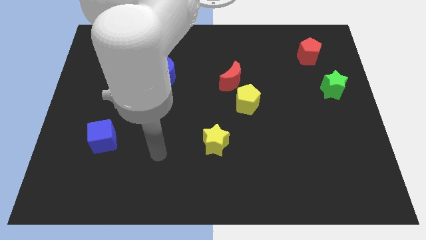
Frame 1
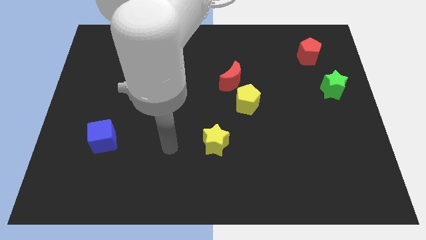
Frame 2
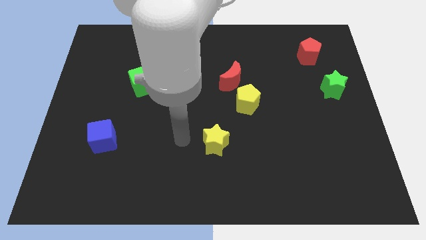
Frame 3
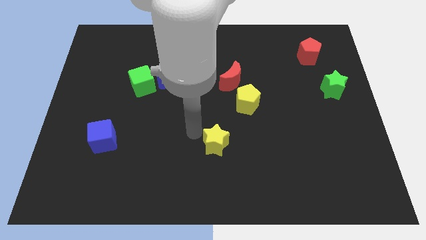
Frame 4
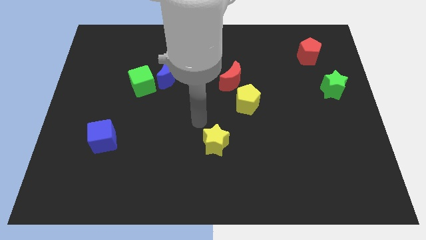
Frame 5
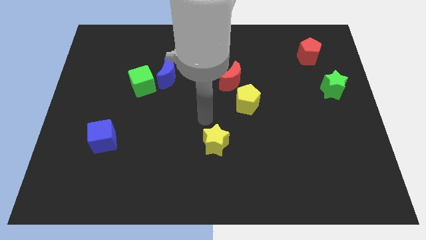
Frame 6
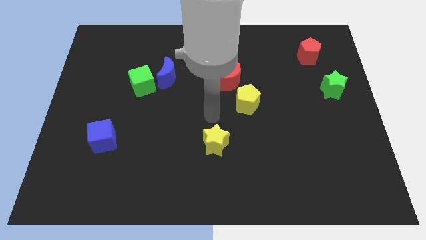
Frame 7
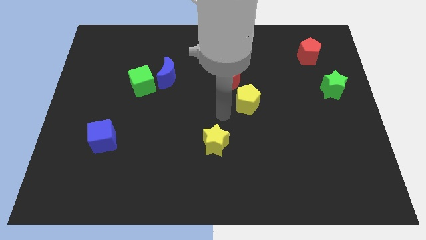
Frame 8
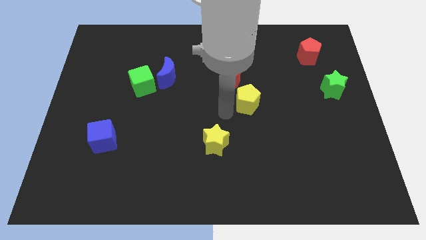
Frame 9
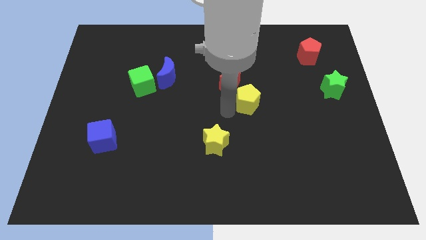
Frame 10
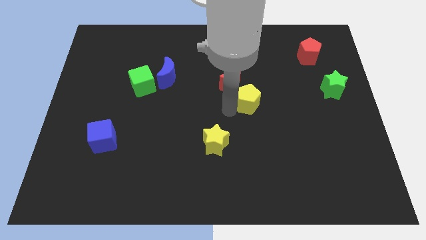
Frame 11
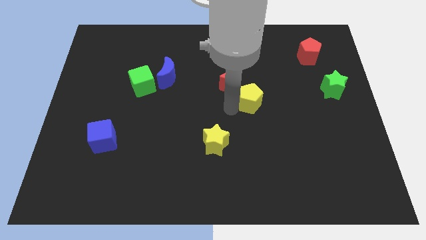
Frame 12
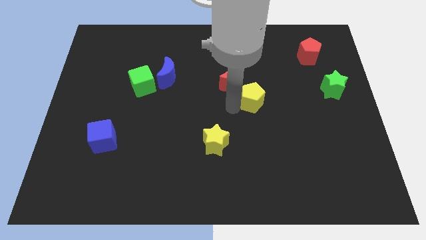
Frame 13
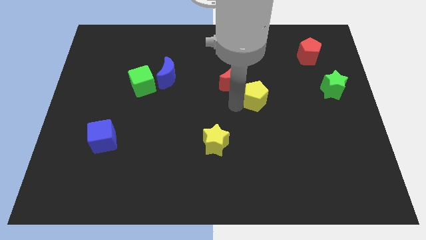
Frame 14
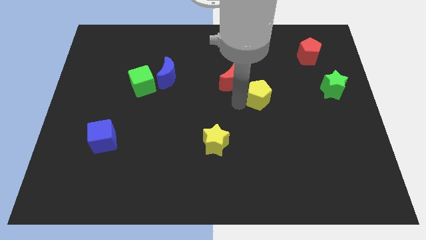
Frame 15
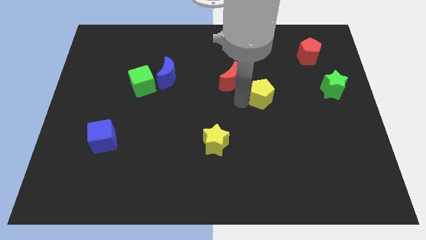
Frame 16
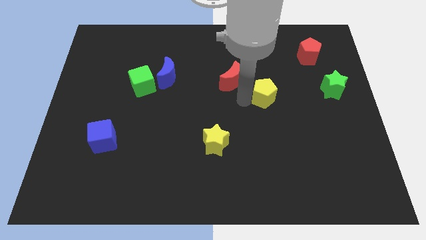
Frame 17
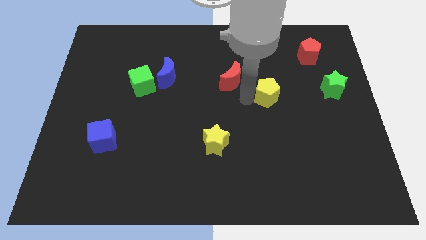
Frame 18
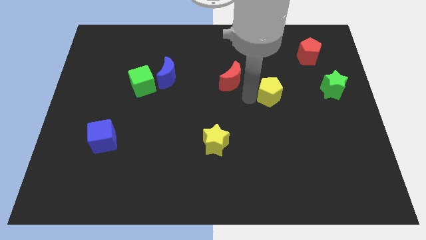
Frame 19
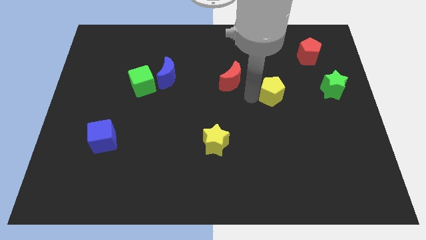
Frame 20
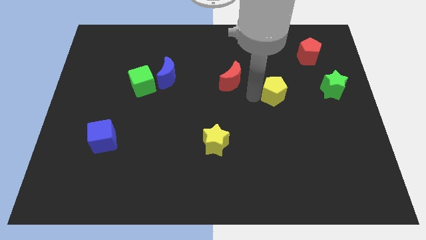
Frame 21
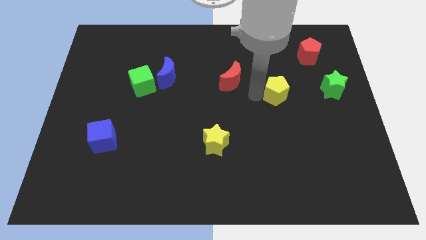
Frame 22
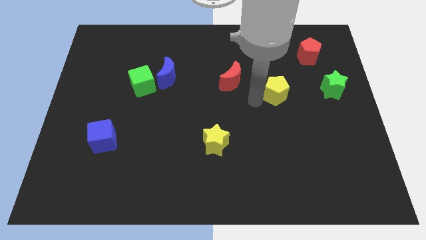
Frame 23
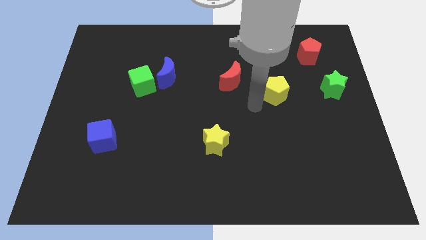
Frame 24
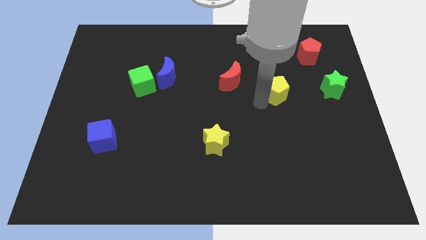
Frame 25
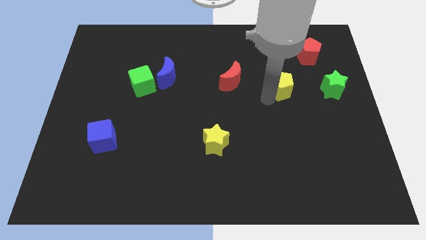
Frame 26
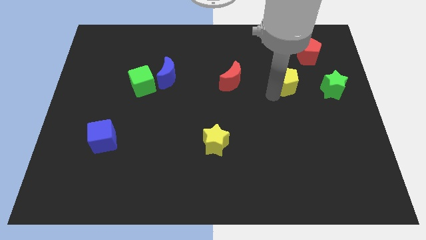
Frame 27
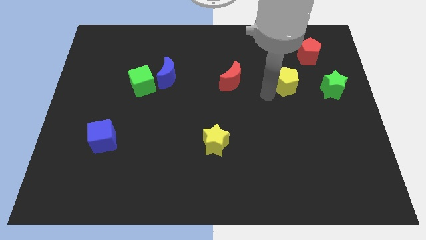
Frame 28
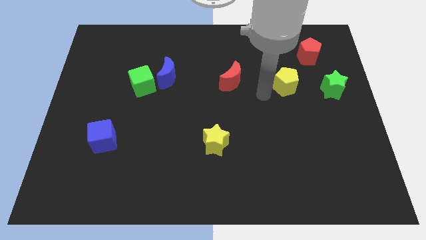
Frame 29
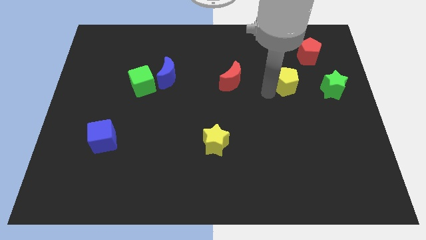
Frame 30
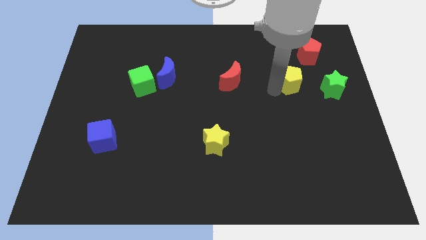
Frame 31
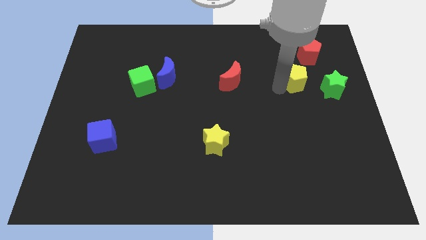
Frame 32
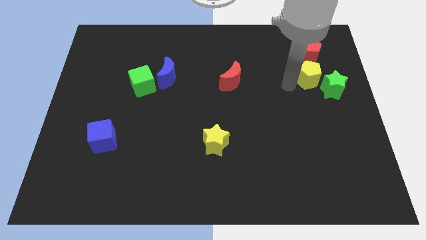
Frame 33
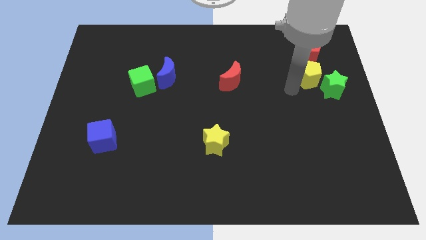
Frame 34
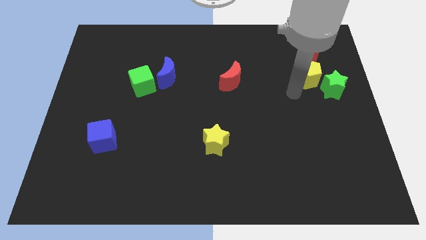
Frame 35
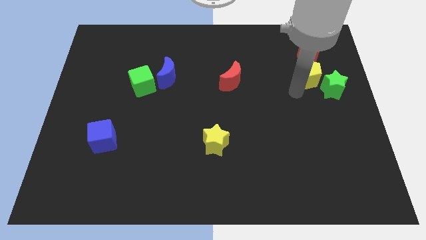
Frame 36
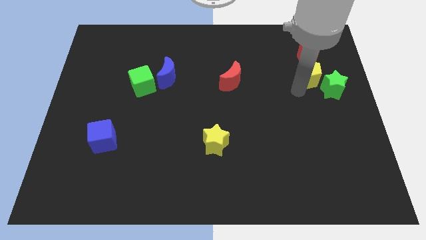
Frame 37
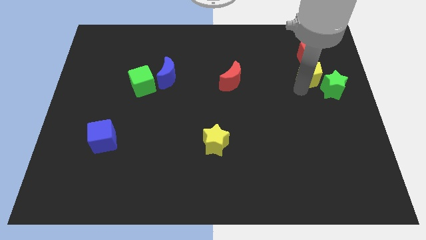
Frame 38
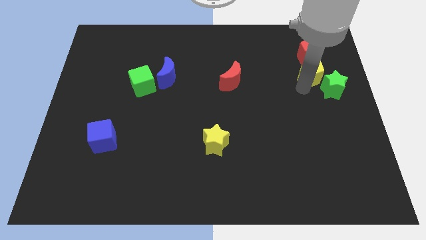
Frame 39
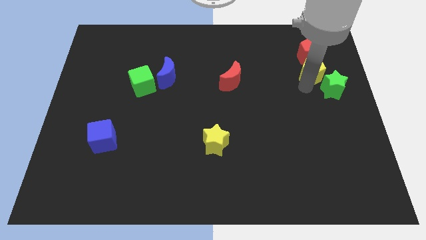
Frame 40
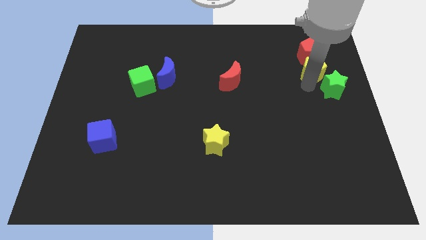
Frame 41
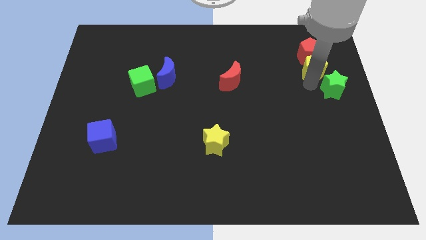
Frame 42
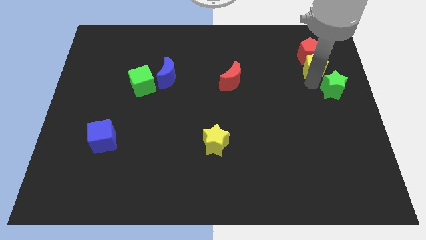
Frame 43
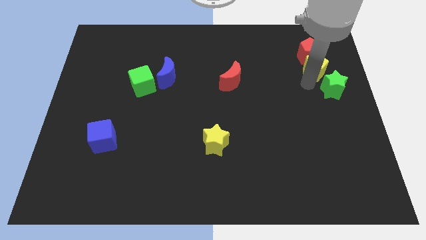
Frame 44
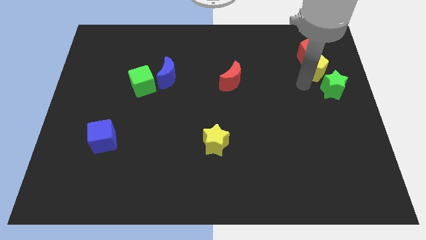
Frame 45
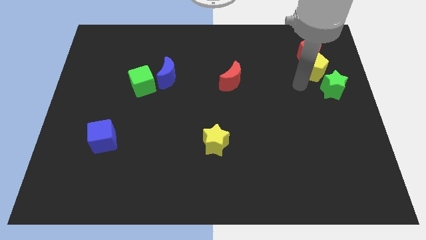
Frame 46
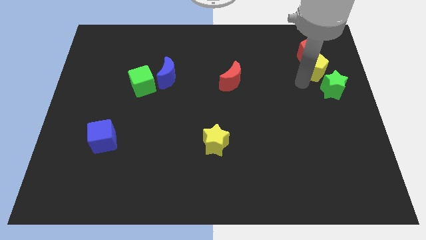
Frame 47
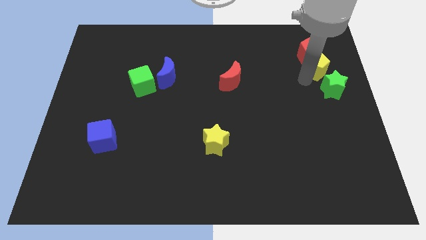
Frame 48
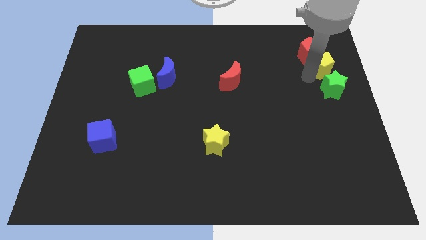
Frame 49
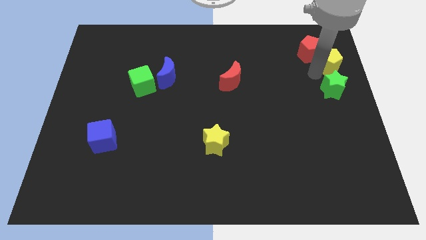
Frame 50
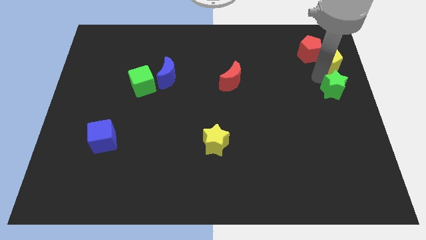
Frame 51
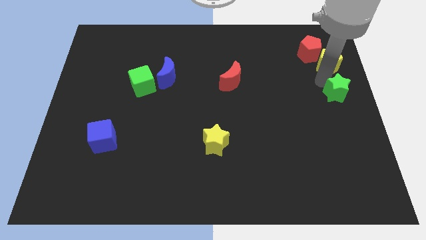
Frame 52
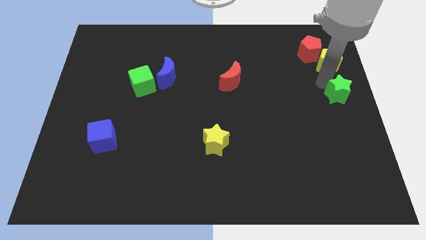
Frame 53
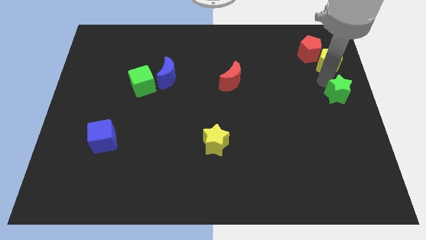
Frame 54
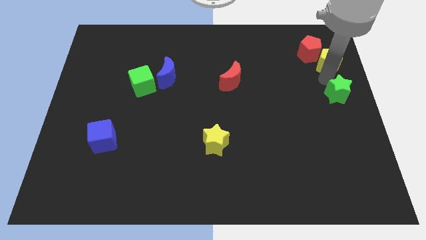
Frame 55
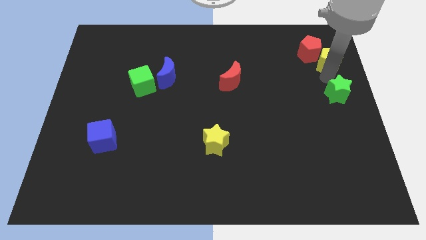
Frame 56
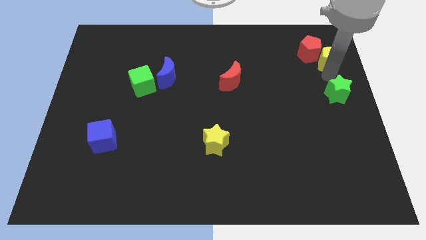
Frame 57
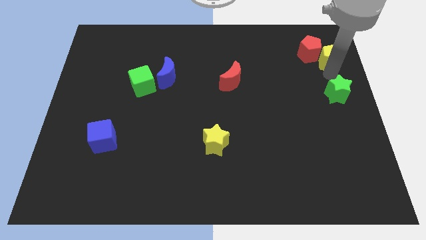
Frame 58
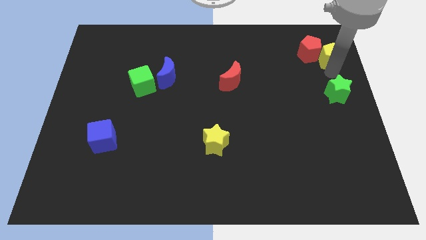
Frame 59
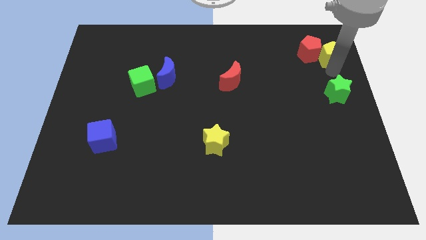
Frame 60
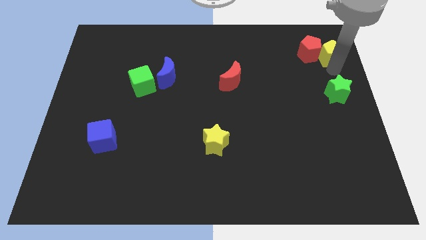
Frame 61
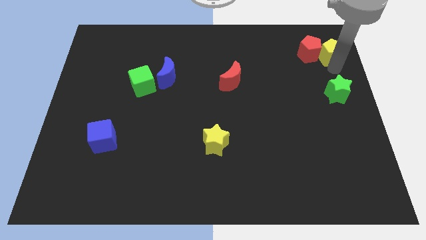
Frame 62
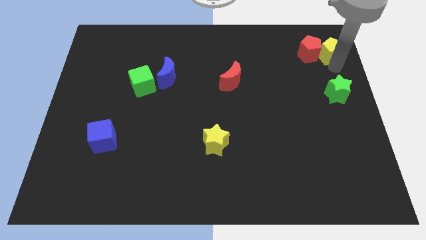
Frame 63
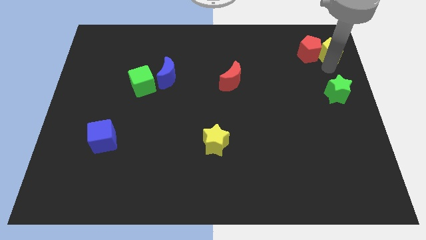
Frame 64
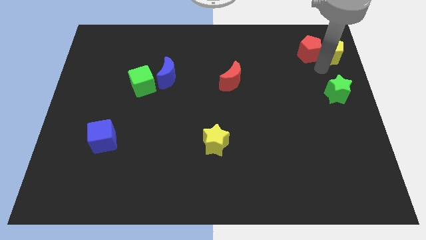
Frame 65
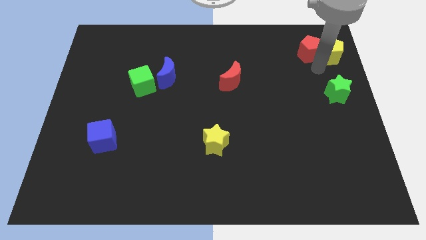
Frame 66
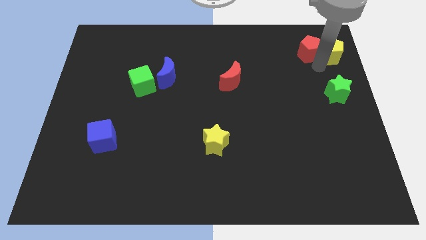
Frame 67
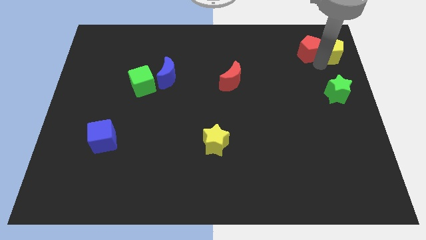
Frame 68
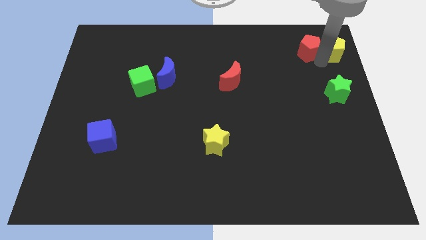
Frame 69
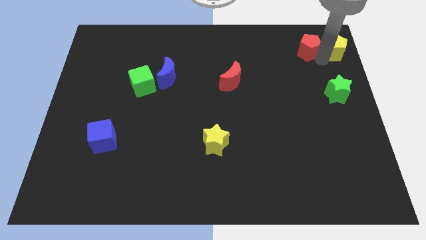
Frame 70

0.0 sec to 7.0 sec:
push the yellow pentagon to the top right
